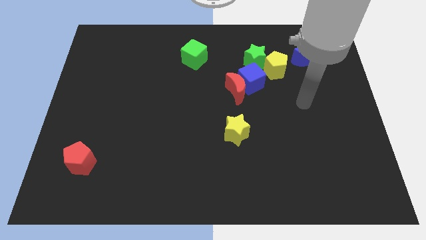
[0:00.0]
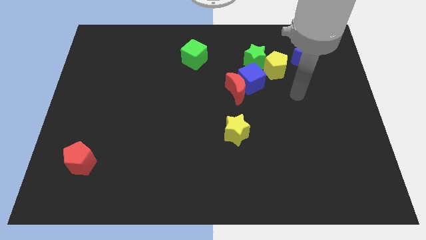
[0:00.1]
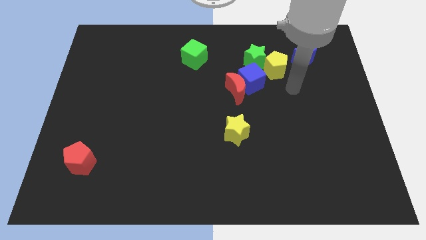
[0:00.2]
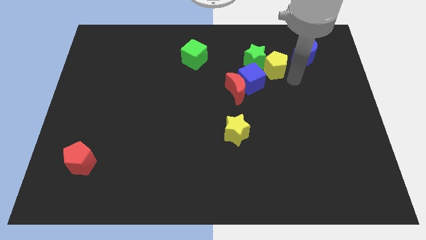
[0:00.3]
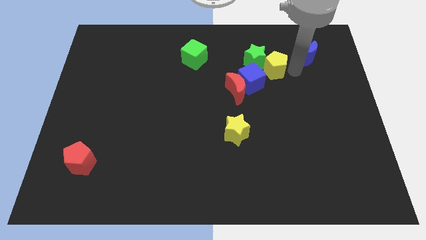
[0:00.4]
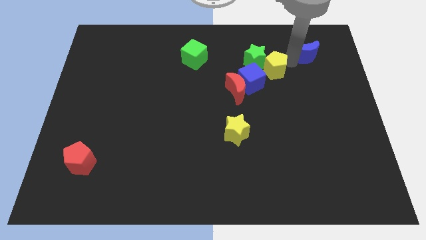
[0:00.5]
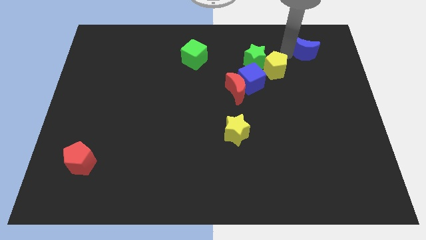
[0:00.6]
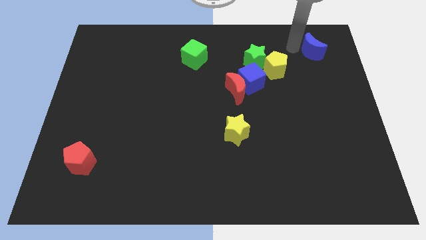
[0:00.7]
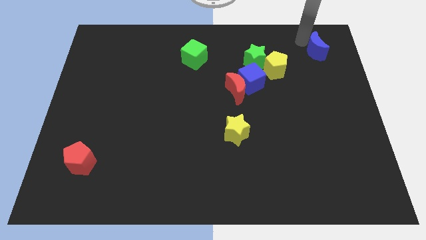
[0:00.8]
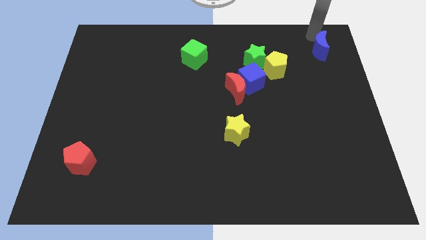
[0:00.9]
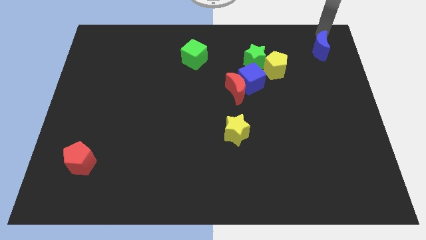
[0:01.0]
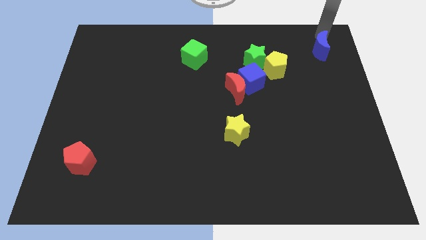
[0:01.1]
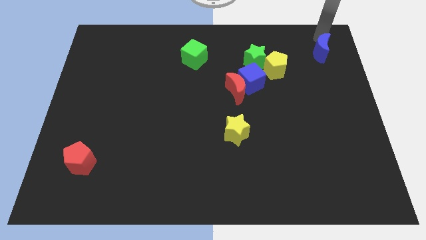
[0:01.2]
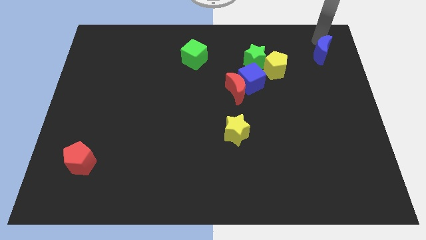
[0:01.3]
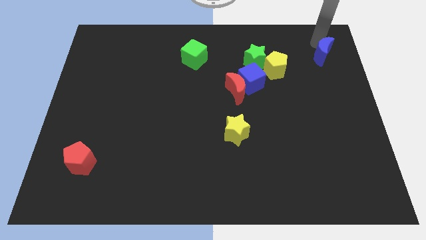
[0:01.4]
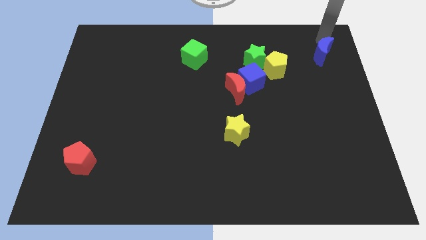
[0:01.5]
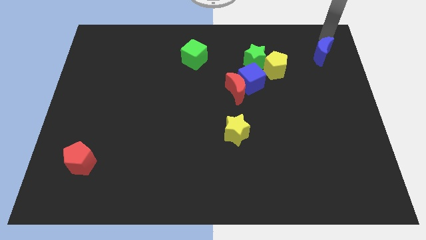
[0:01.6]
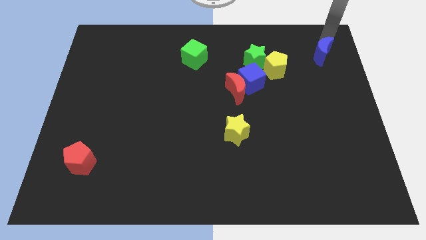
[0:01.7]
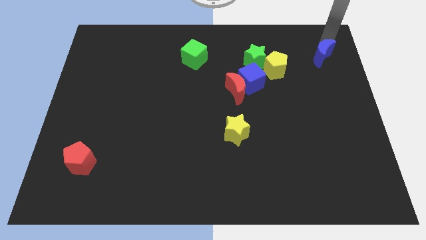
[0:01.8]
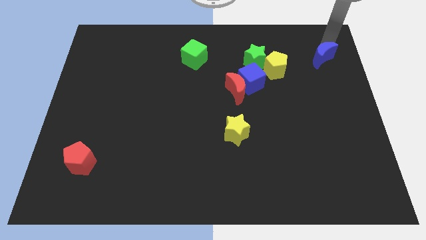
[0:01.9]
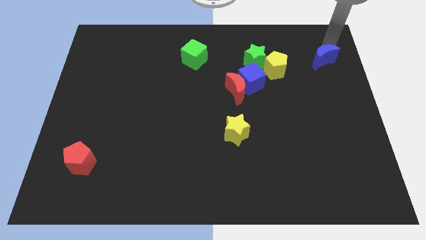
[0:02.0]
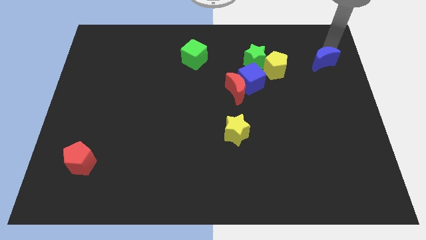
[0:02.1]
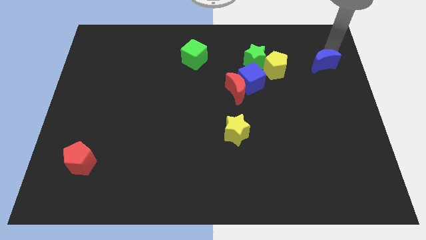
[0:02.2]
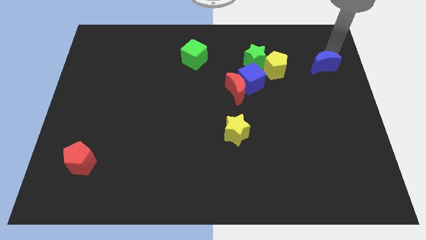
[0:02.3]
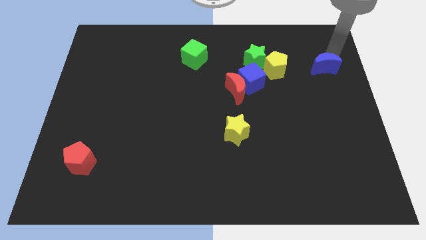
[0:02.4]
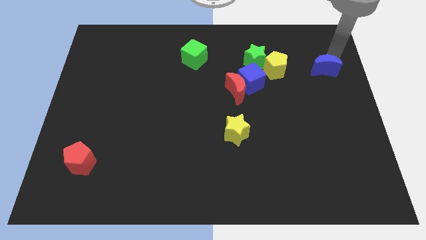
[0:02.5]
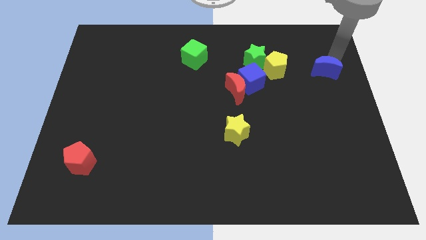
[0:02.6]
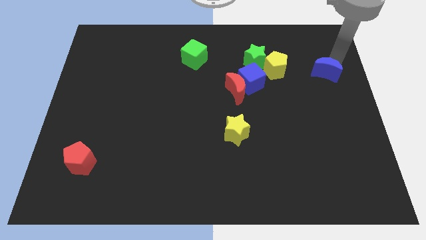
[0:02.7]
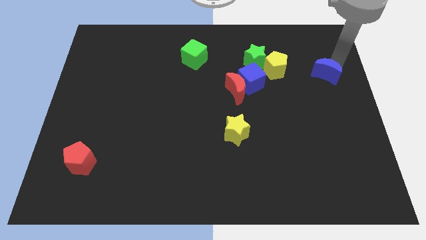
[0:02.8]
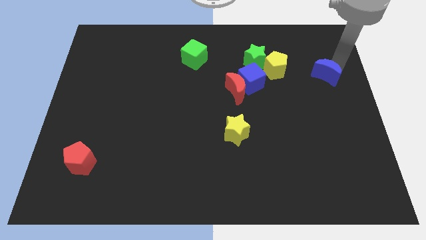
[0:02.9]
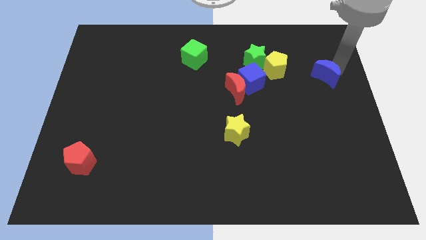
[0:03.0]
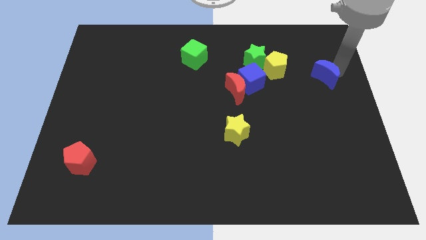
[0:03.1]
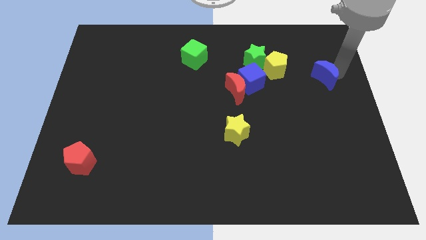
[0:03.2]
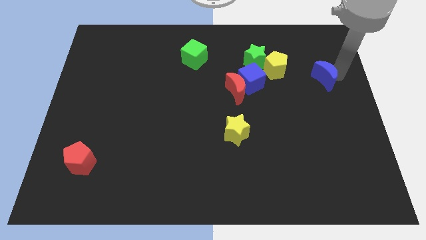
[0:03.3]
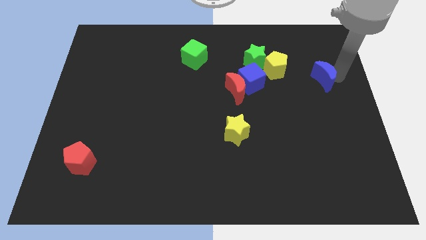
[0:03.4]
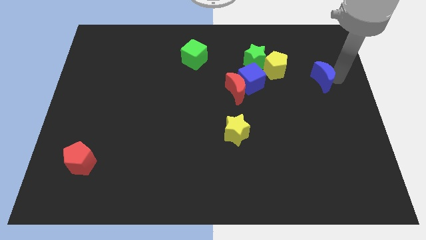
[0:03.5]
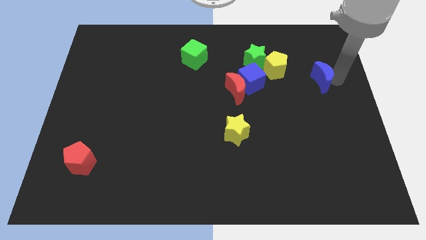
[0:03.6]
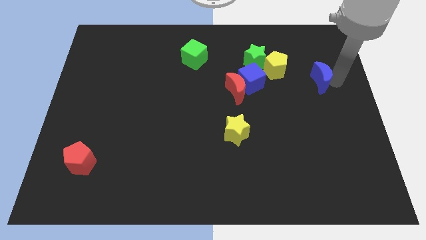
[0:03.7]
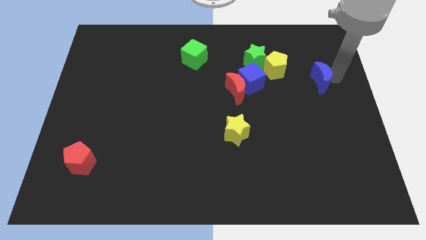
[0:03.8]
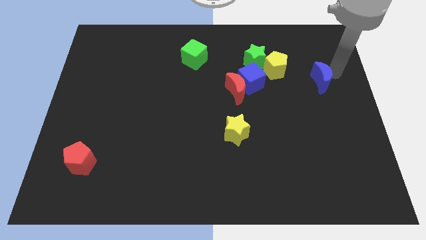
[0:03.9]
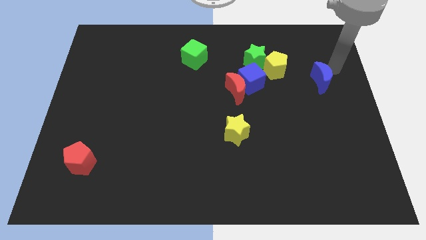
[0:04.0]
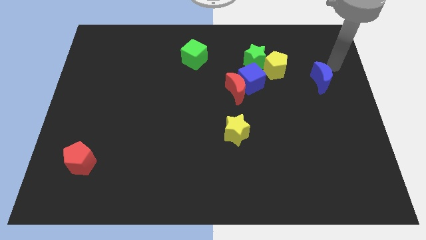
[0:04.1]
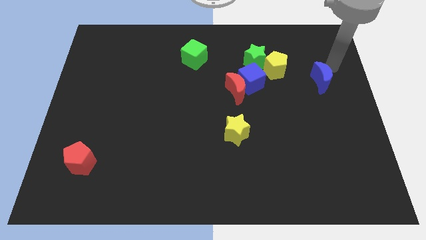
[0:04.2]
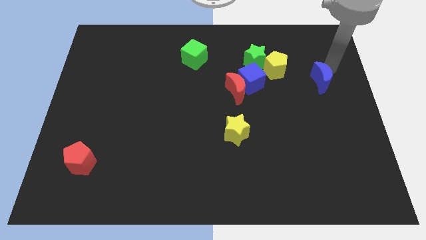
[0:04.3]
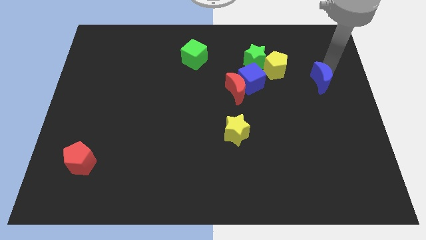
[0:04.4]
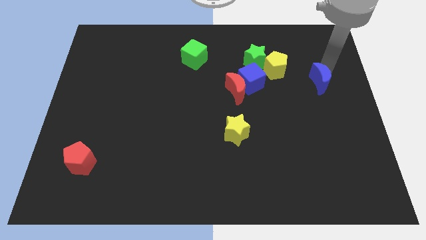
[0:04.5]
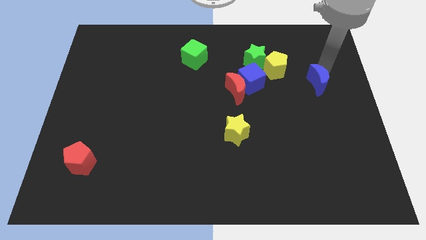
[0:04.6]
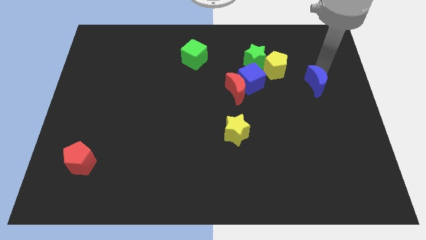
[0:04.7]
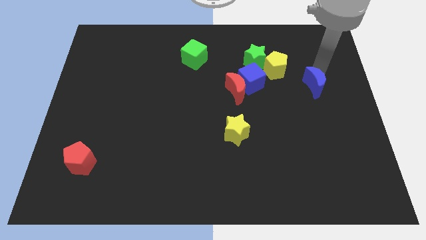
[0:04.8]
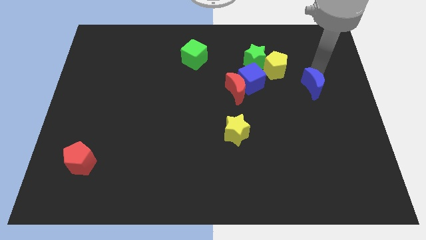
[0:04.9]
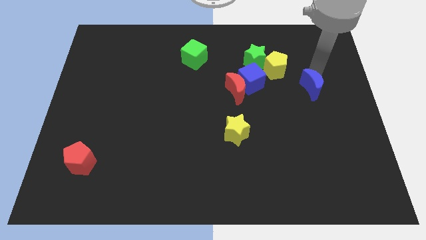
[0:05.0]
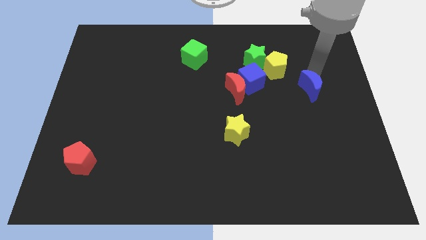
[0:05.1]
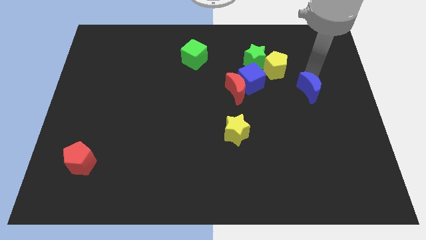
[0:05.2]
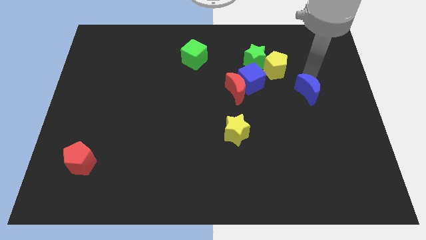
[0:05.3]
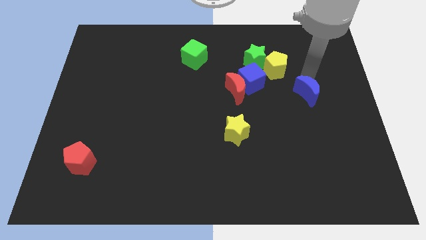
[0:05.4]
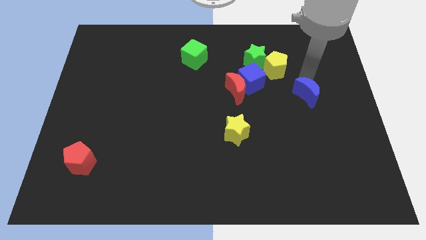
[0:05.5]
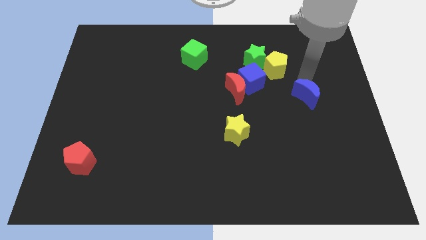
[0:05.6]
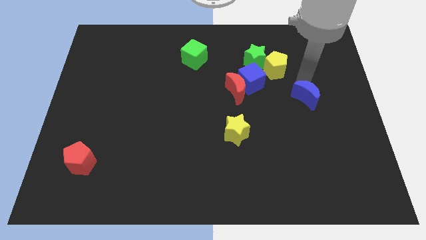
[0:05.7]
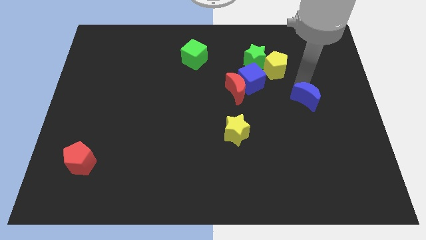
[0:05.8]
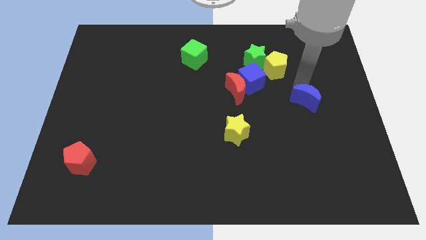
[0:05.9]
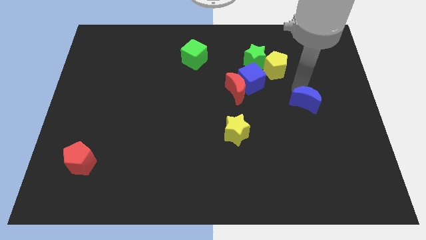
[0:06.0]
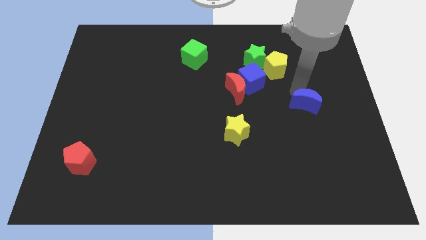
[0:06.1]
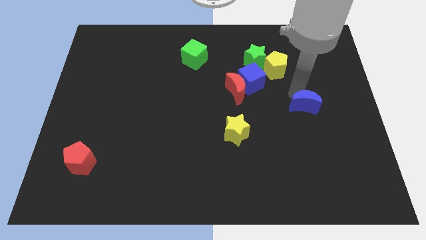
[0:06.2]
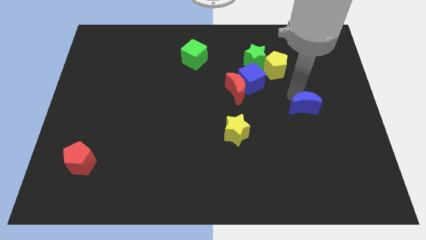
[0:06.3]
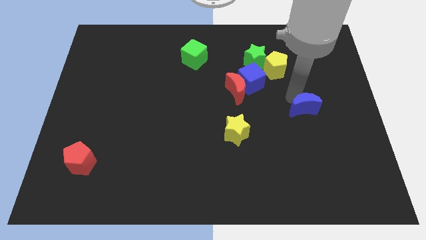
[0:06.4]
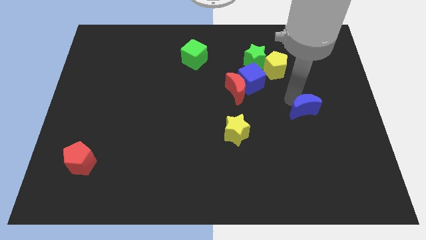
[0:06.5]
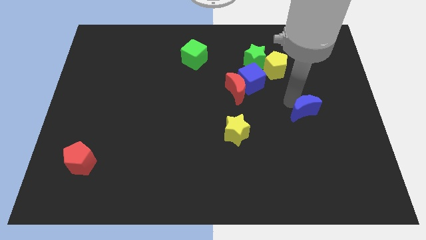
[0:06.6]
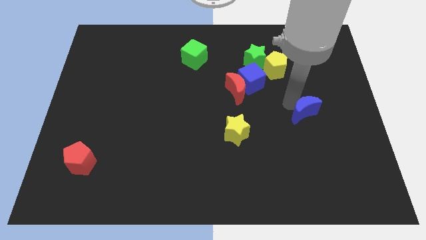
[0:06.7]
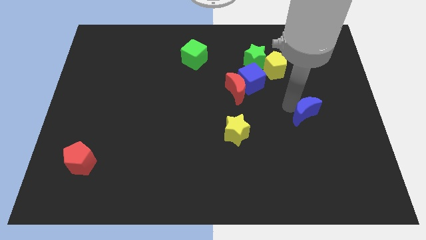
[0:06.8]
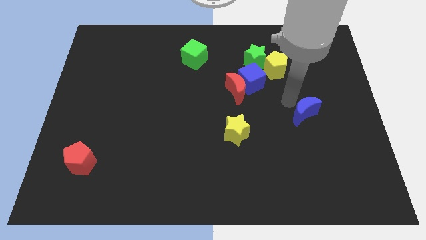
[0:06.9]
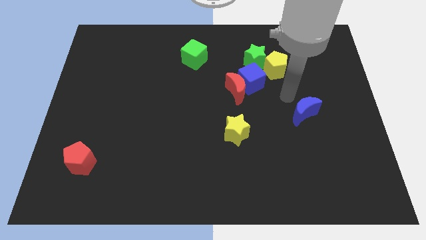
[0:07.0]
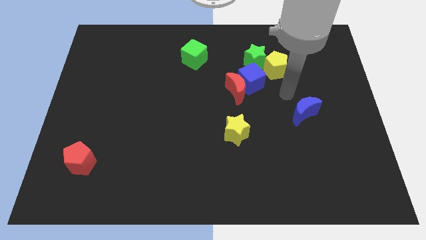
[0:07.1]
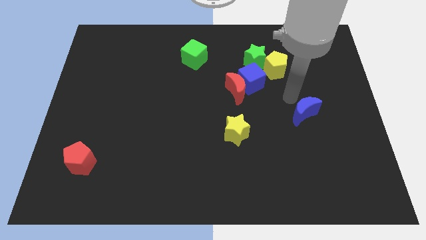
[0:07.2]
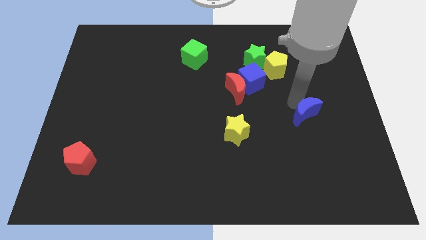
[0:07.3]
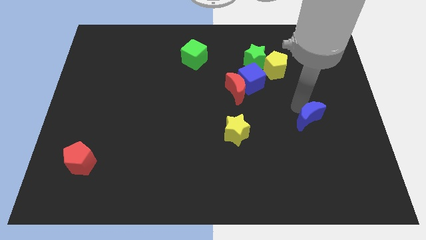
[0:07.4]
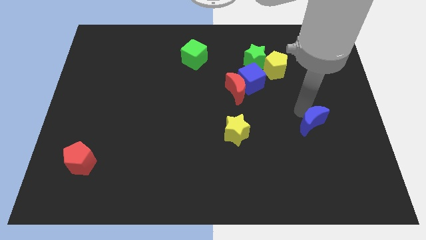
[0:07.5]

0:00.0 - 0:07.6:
push the blue moon downwards

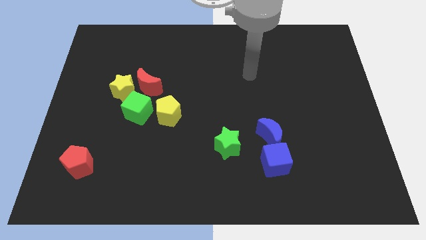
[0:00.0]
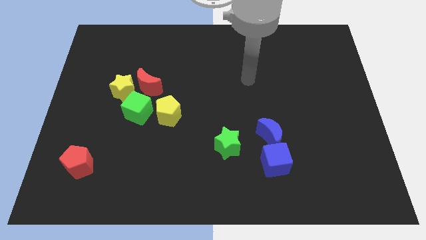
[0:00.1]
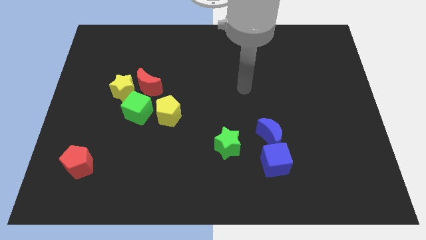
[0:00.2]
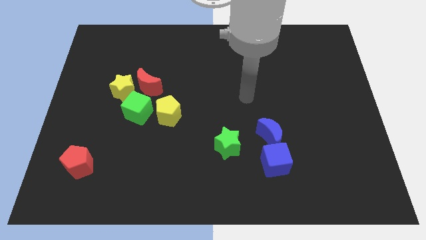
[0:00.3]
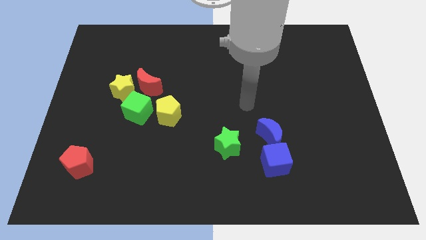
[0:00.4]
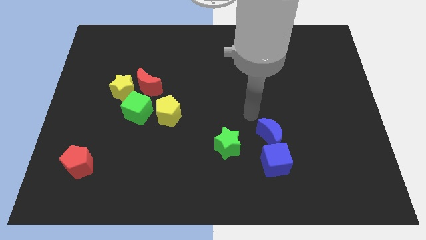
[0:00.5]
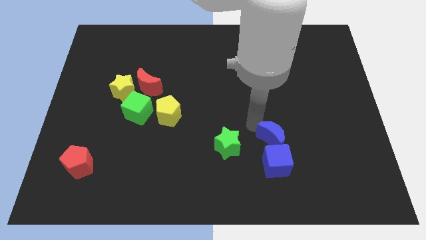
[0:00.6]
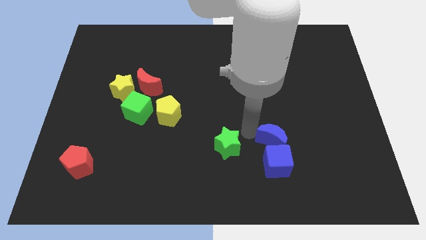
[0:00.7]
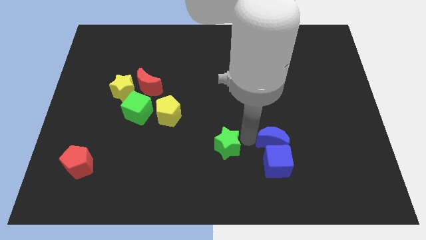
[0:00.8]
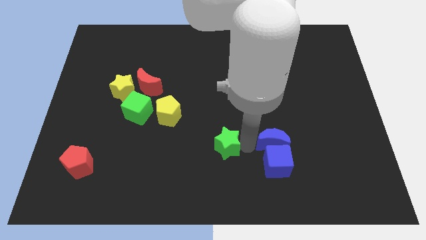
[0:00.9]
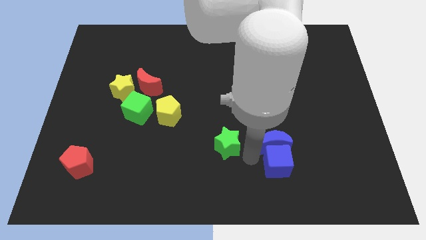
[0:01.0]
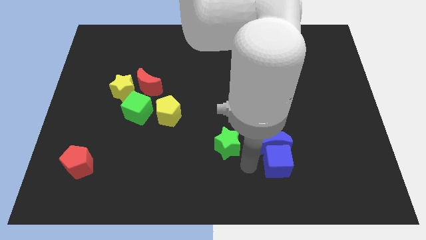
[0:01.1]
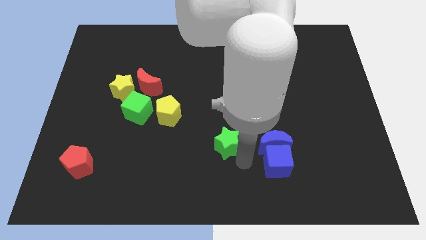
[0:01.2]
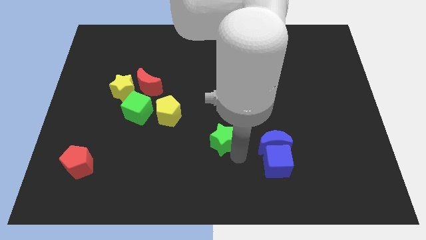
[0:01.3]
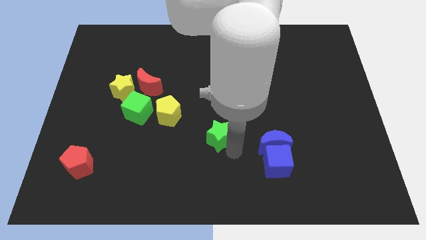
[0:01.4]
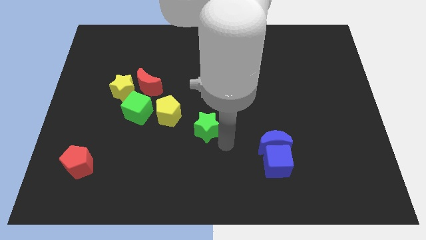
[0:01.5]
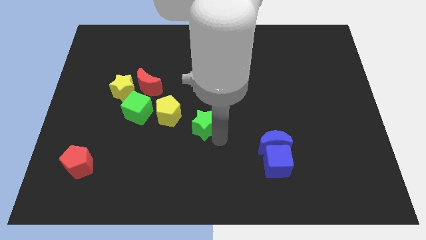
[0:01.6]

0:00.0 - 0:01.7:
move the green star a bit up and then to the left
